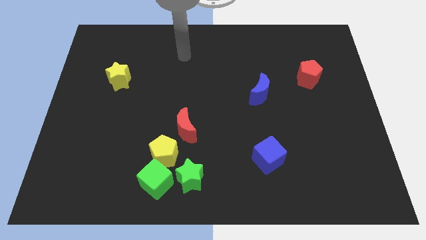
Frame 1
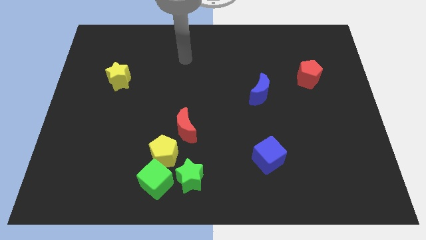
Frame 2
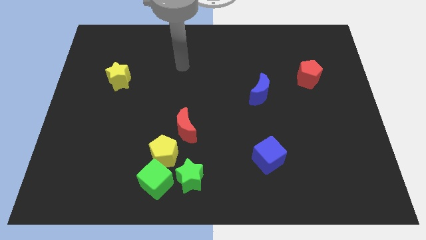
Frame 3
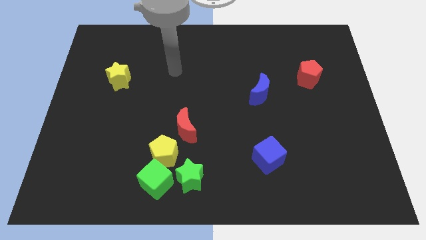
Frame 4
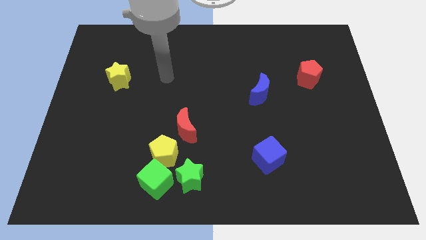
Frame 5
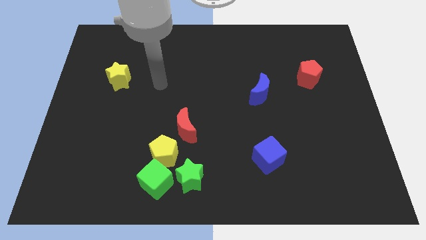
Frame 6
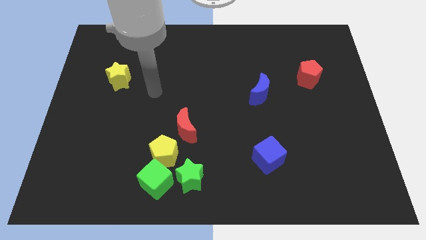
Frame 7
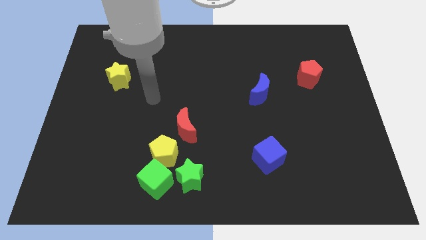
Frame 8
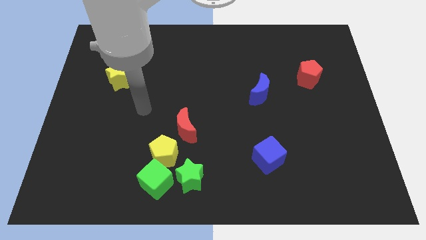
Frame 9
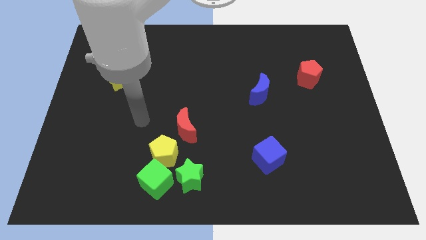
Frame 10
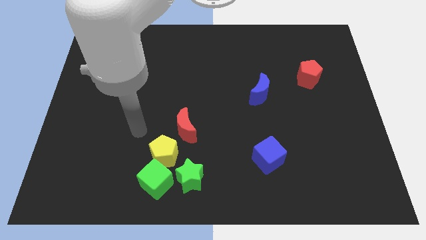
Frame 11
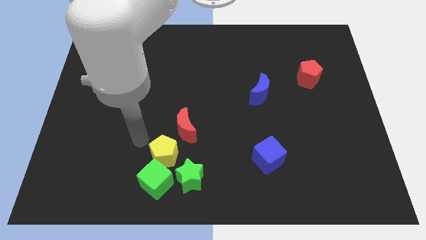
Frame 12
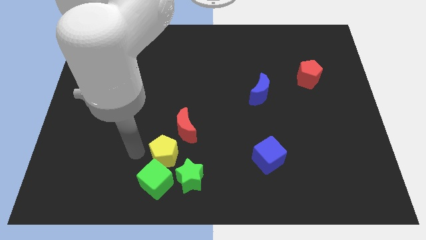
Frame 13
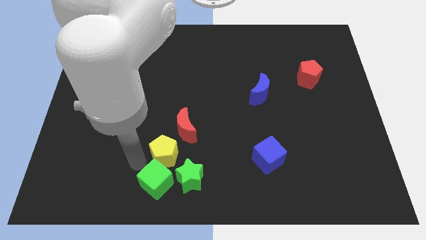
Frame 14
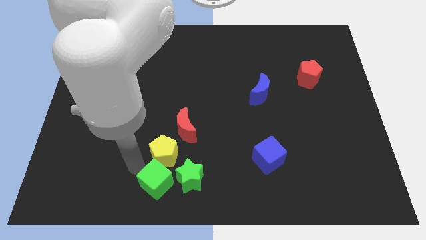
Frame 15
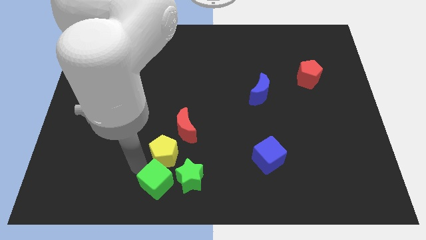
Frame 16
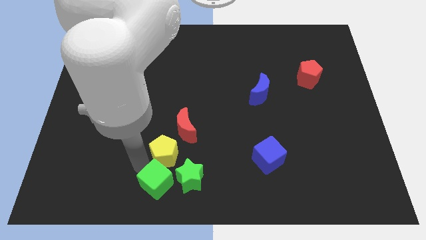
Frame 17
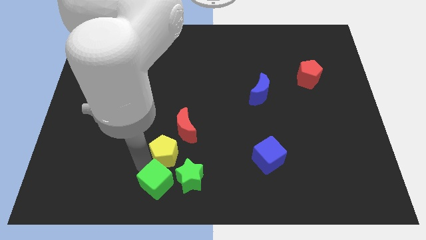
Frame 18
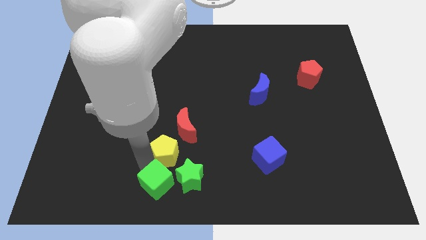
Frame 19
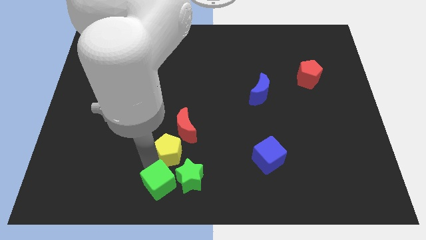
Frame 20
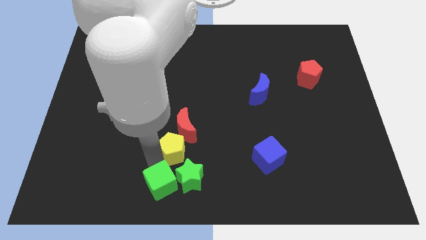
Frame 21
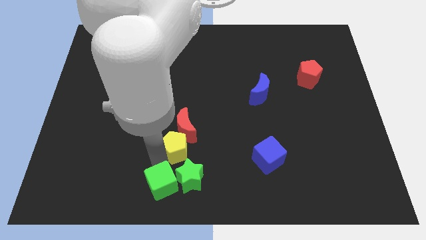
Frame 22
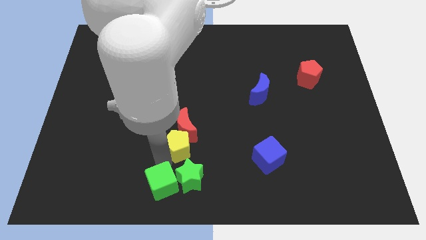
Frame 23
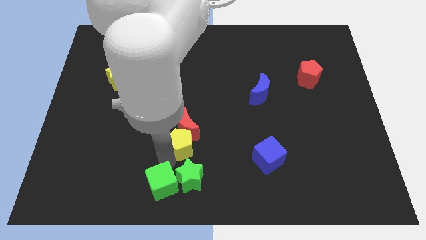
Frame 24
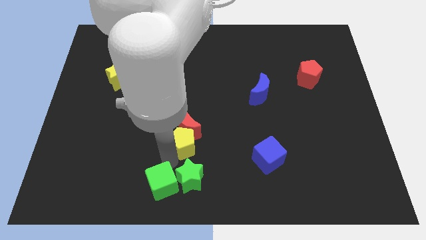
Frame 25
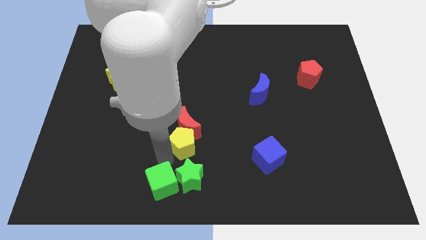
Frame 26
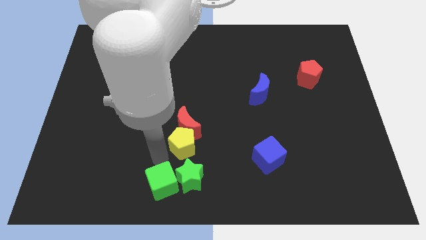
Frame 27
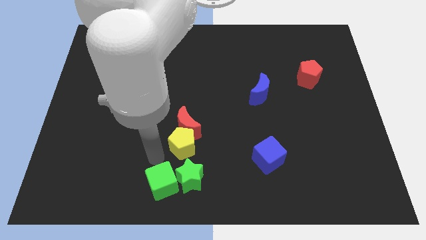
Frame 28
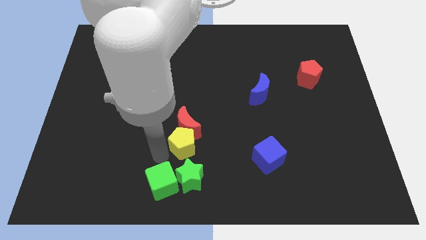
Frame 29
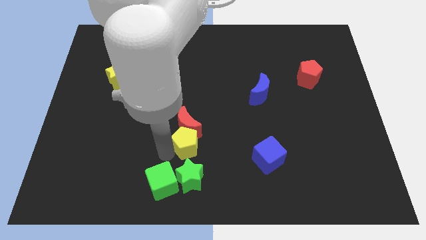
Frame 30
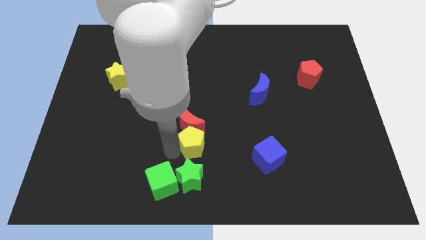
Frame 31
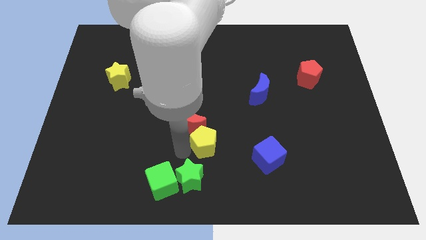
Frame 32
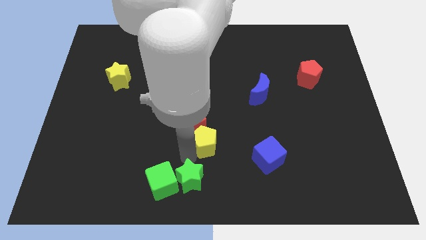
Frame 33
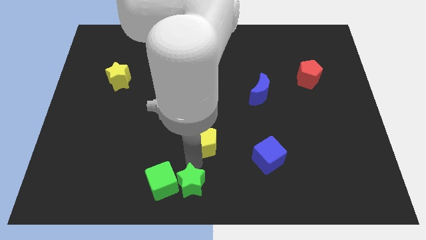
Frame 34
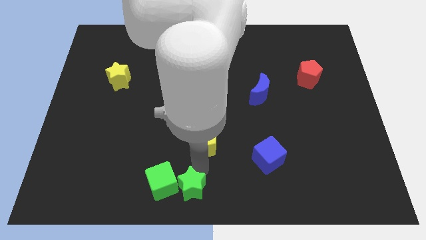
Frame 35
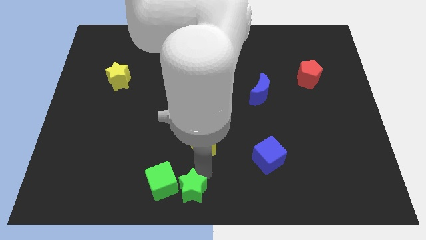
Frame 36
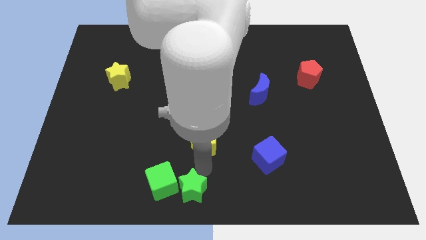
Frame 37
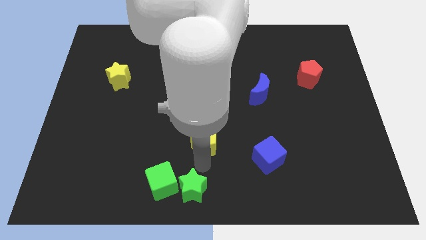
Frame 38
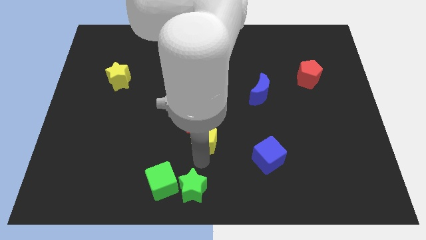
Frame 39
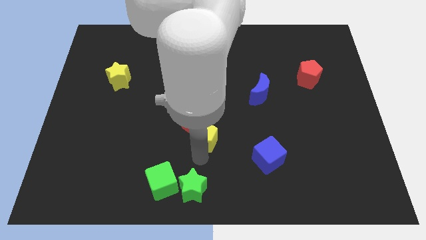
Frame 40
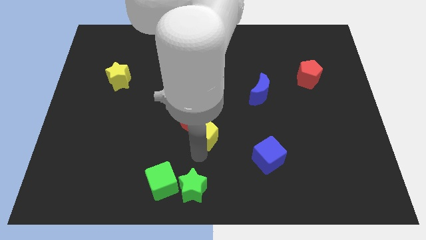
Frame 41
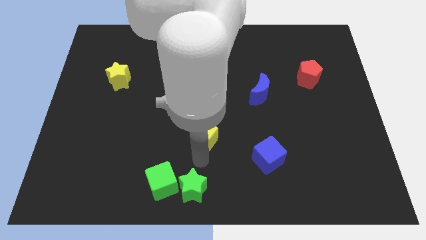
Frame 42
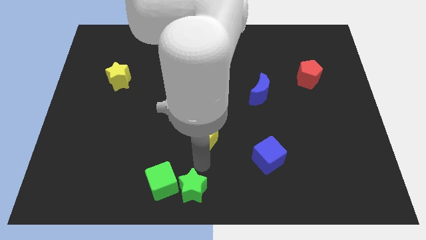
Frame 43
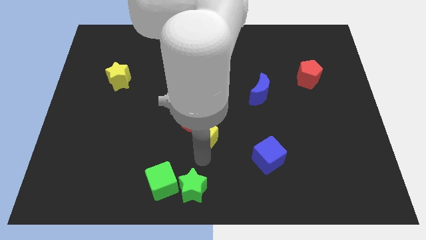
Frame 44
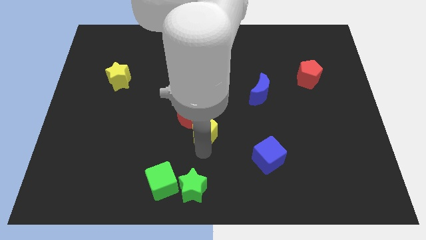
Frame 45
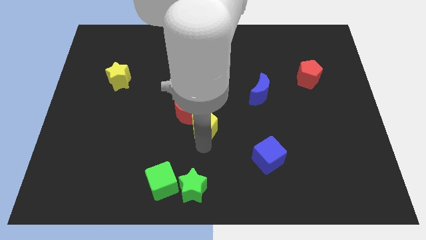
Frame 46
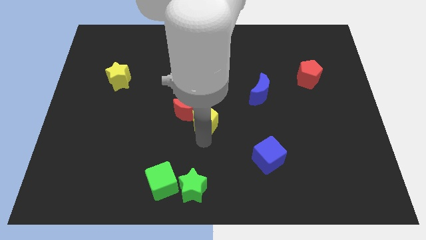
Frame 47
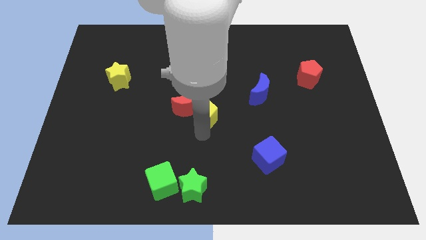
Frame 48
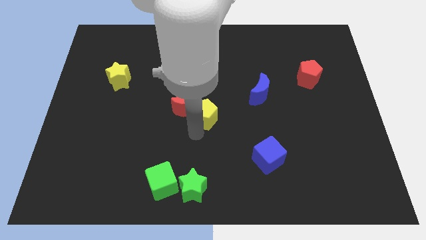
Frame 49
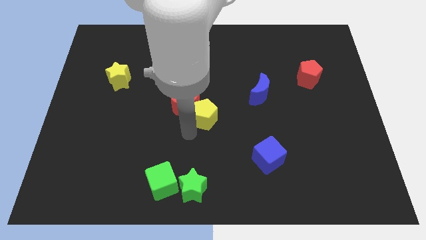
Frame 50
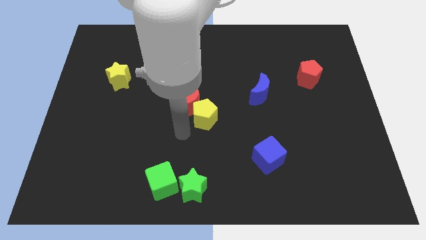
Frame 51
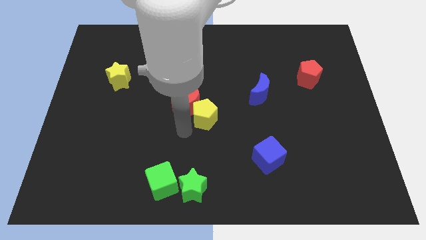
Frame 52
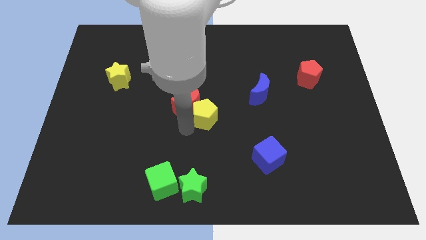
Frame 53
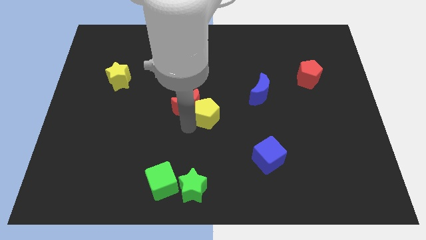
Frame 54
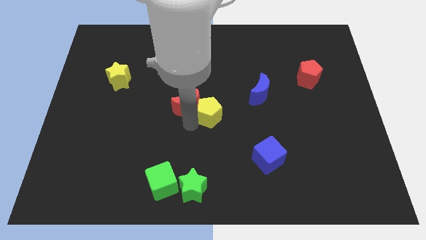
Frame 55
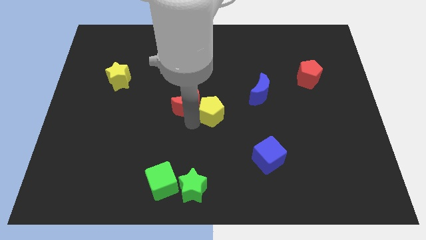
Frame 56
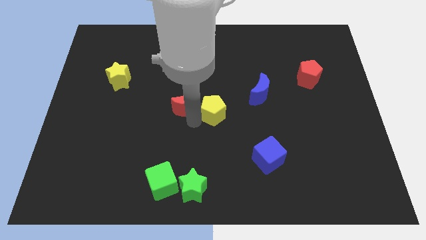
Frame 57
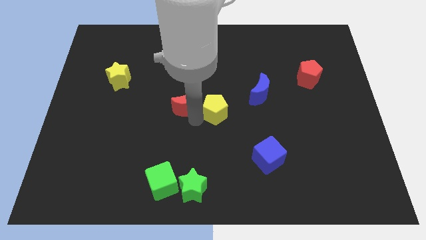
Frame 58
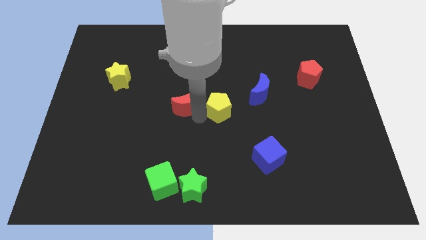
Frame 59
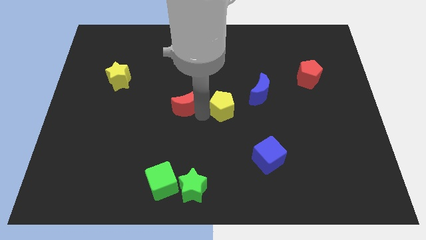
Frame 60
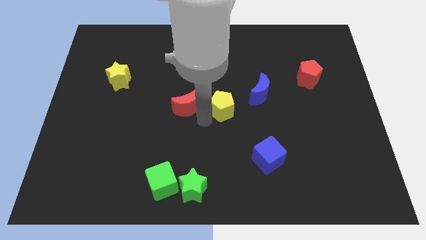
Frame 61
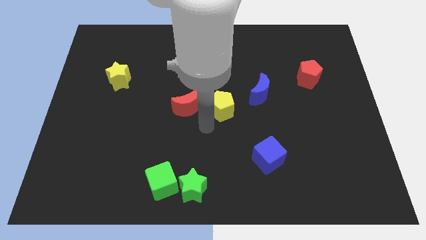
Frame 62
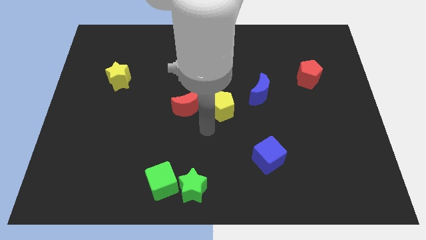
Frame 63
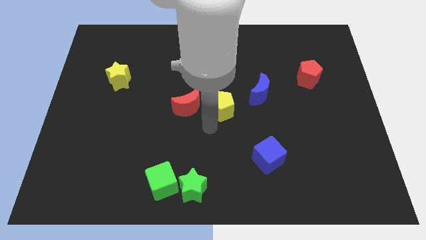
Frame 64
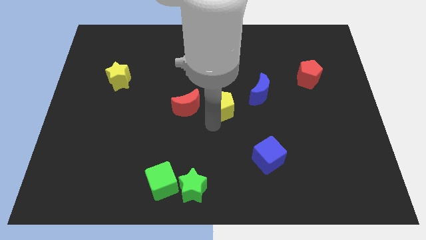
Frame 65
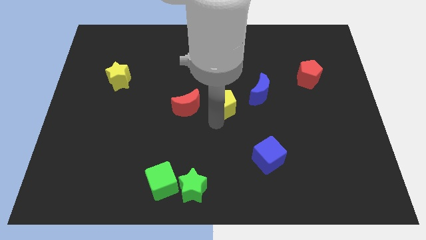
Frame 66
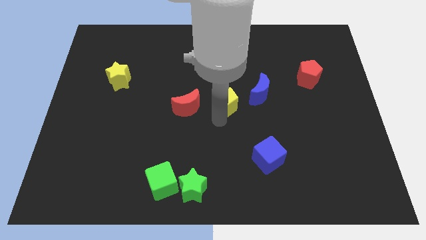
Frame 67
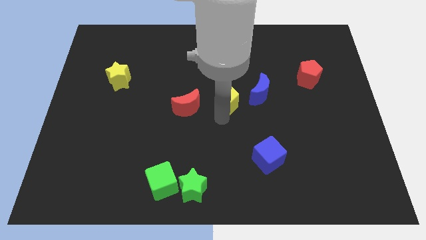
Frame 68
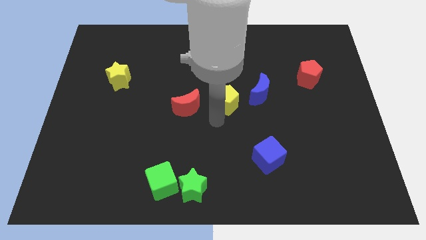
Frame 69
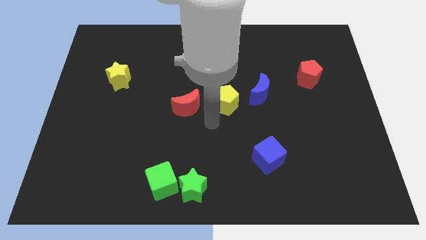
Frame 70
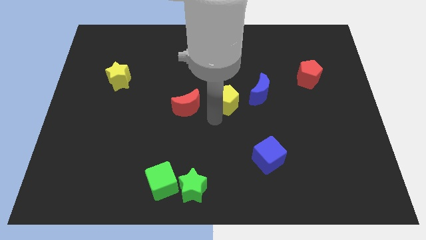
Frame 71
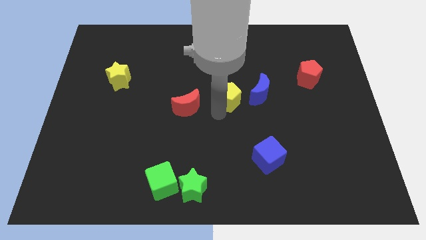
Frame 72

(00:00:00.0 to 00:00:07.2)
move the yellow pentagon upwards and right diagonally

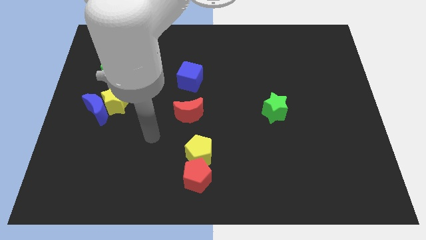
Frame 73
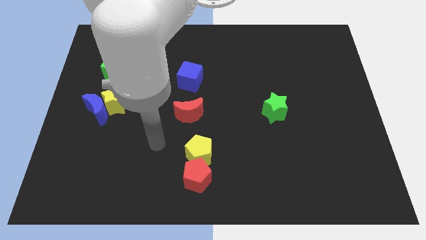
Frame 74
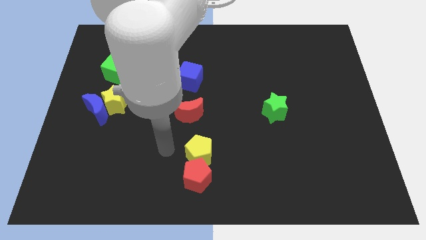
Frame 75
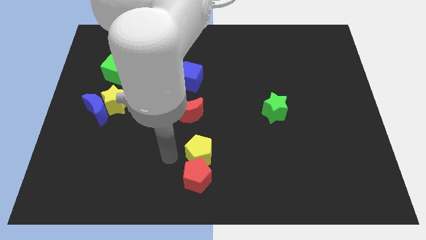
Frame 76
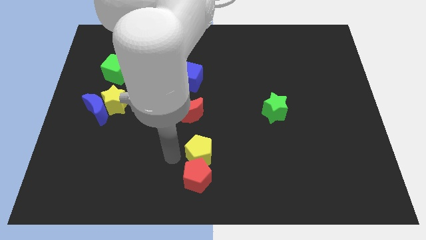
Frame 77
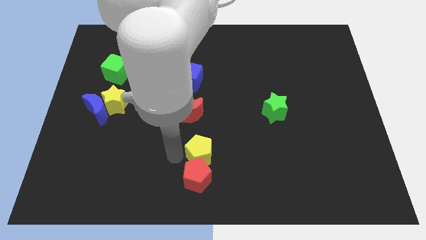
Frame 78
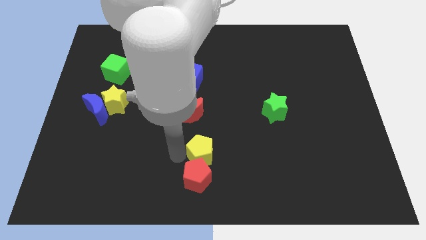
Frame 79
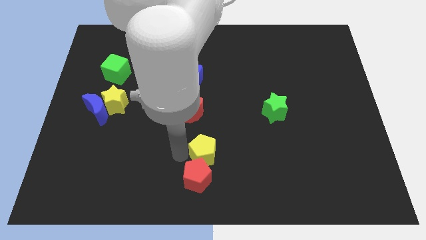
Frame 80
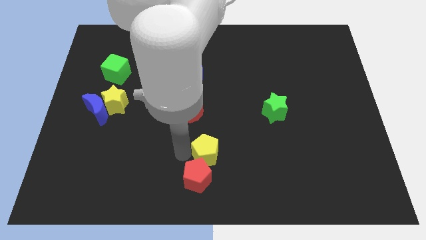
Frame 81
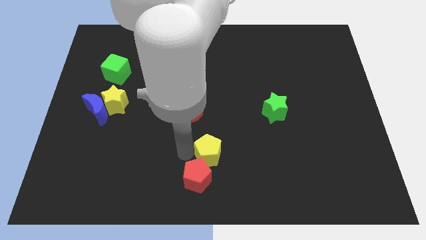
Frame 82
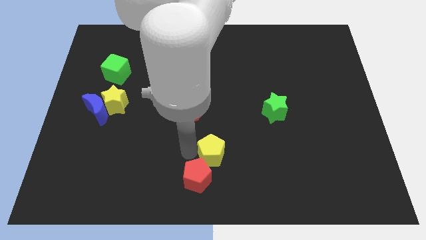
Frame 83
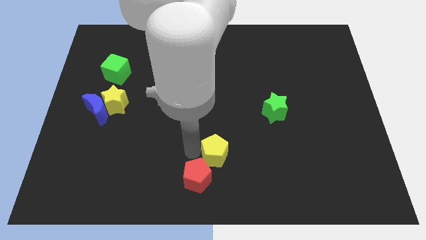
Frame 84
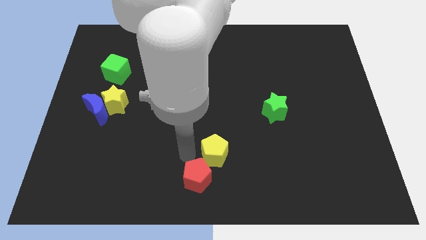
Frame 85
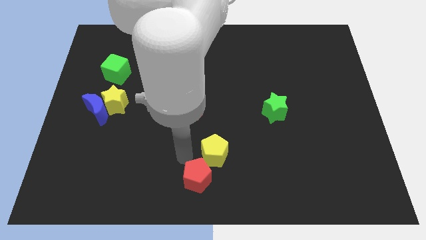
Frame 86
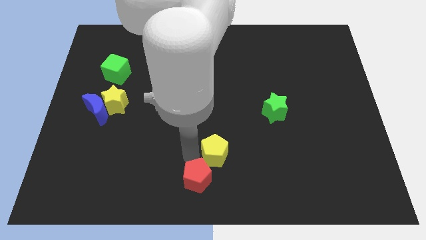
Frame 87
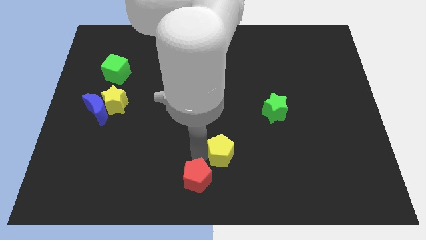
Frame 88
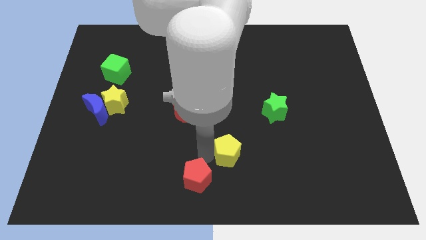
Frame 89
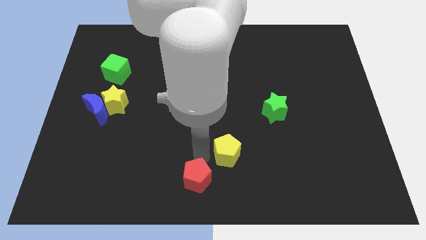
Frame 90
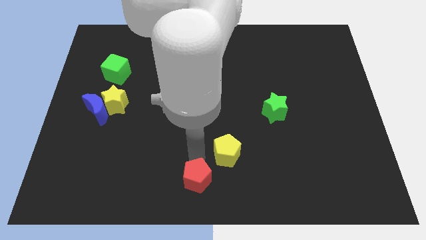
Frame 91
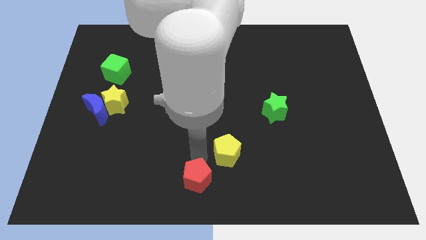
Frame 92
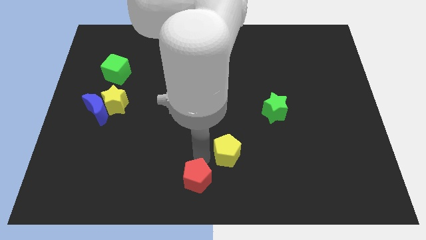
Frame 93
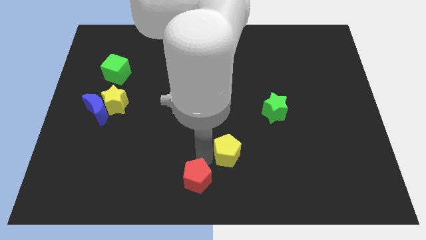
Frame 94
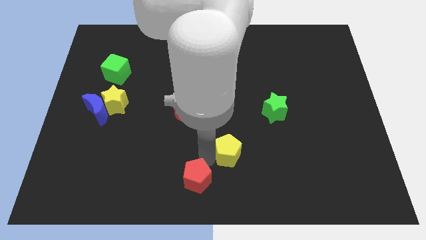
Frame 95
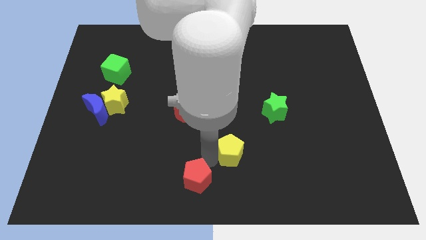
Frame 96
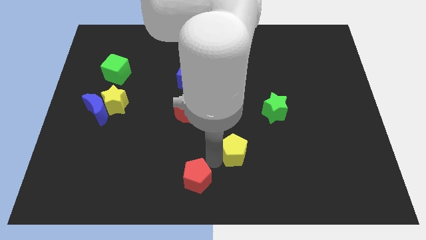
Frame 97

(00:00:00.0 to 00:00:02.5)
move the yellow pentagon right a little bit
